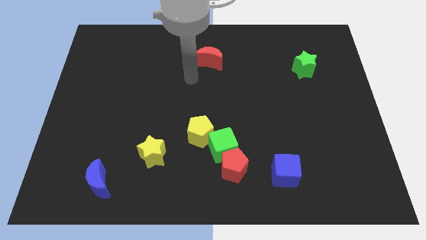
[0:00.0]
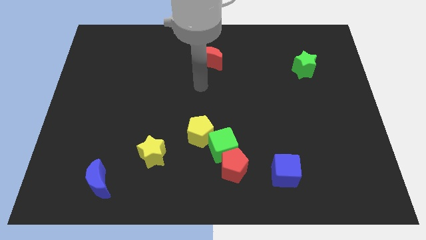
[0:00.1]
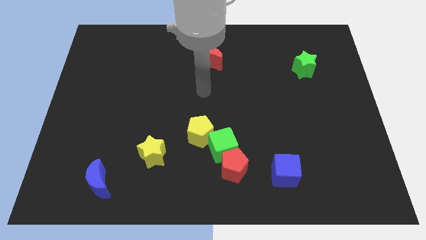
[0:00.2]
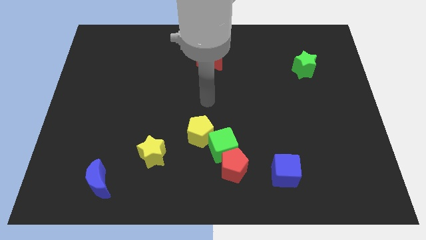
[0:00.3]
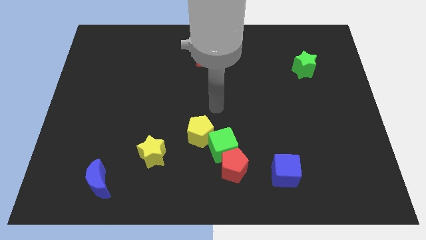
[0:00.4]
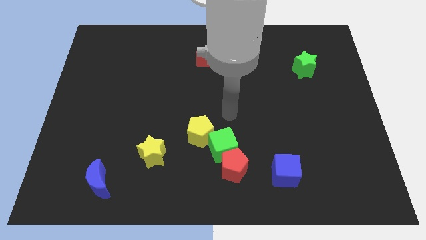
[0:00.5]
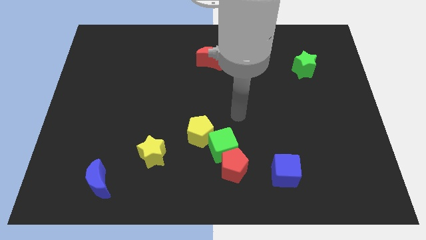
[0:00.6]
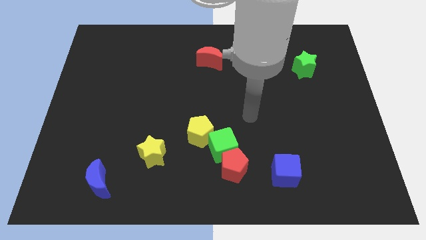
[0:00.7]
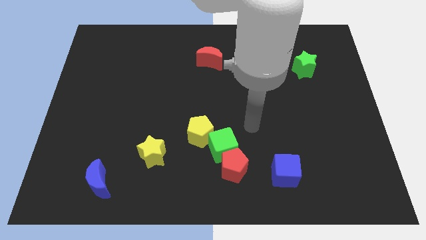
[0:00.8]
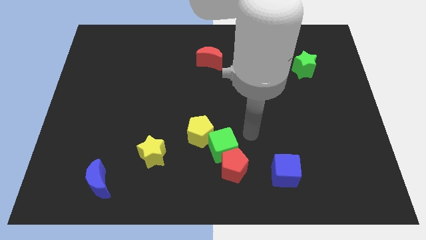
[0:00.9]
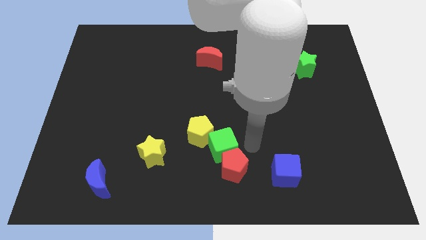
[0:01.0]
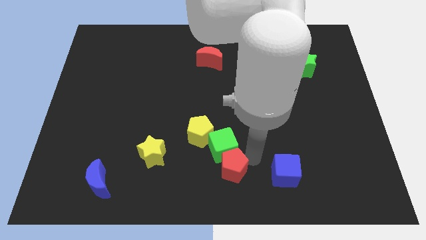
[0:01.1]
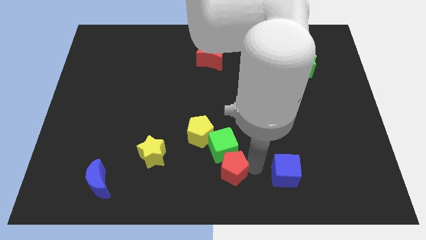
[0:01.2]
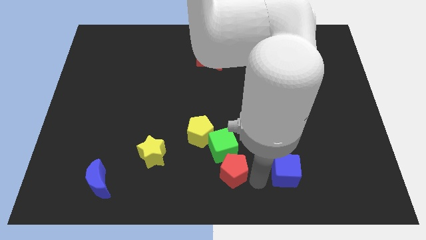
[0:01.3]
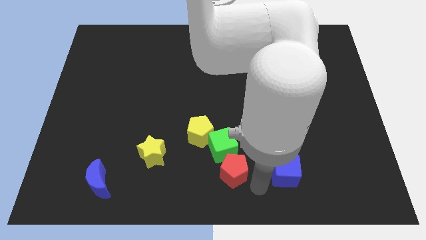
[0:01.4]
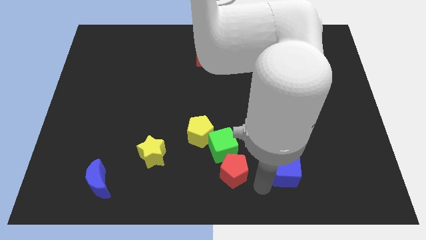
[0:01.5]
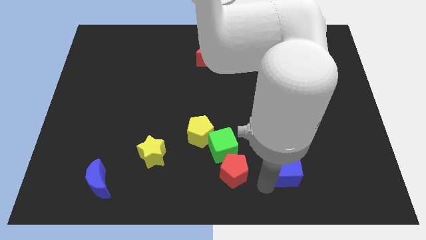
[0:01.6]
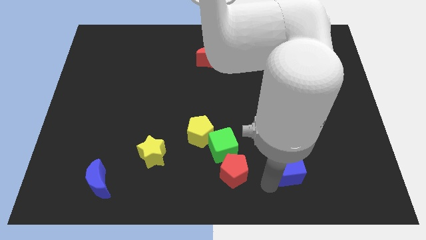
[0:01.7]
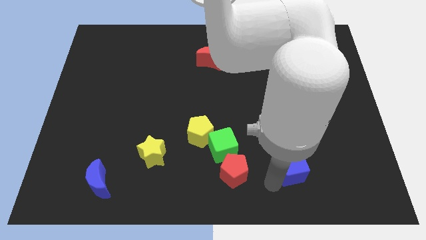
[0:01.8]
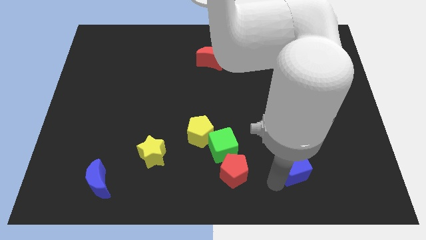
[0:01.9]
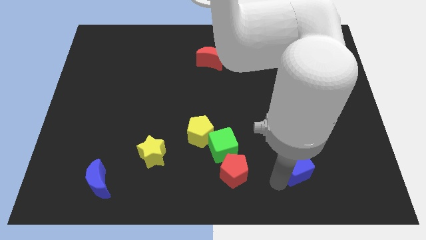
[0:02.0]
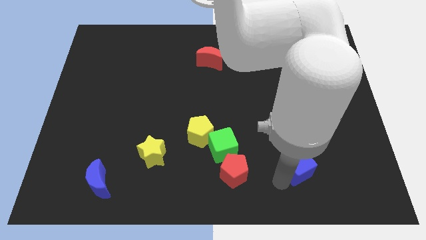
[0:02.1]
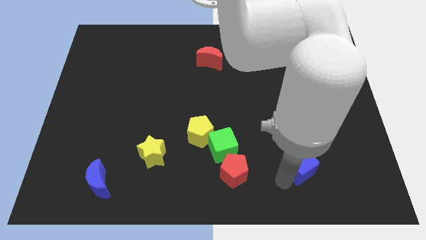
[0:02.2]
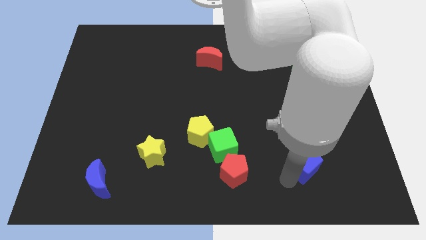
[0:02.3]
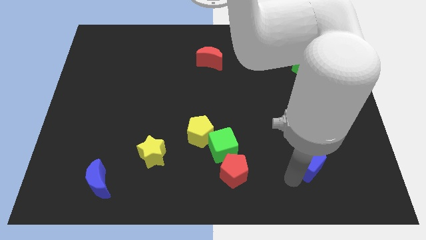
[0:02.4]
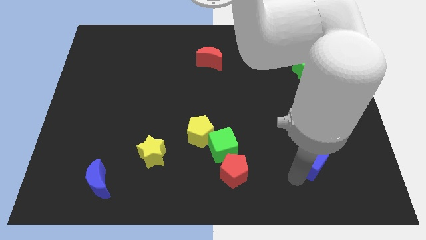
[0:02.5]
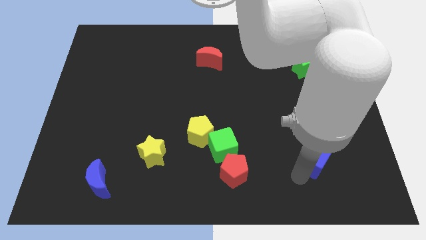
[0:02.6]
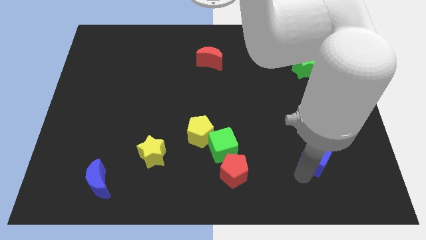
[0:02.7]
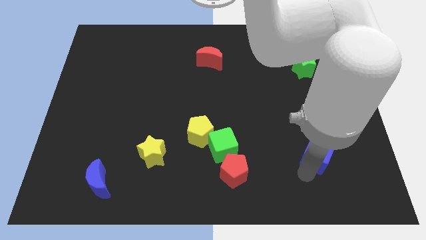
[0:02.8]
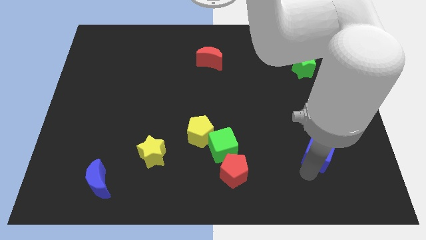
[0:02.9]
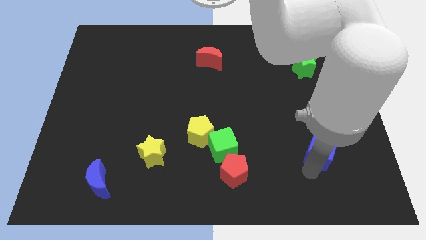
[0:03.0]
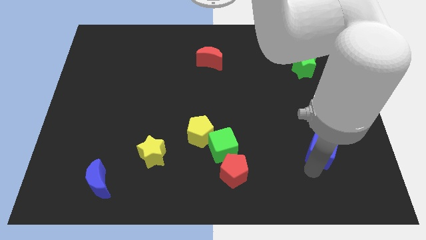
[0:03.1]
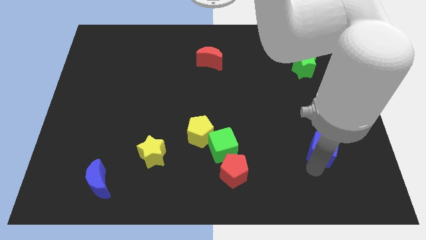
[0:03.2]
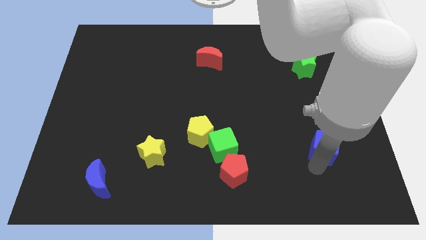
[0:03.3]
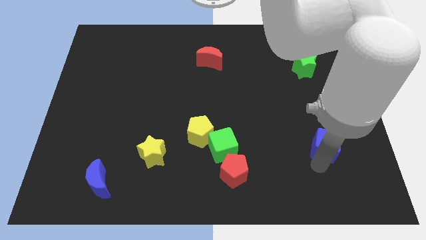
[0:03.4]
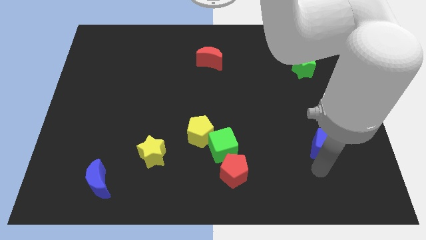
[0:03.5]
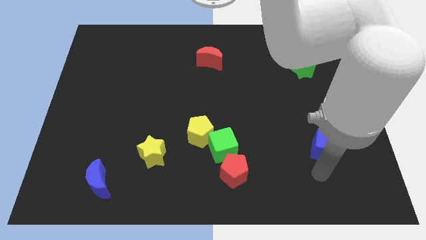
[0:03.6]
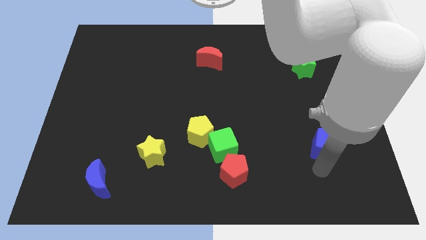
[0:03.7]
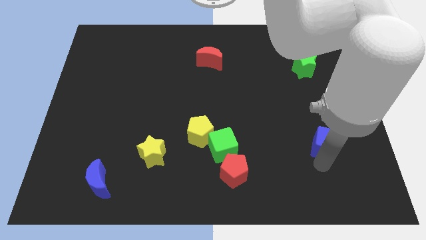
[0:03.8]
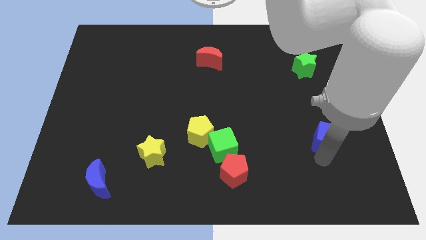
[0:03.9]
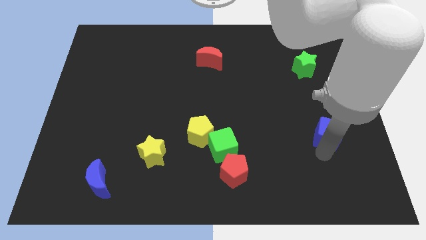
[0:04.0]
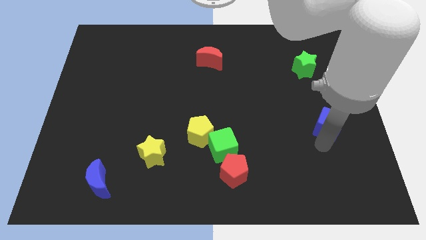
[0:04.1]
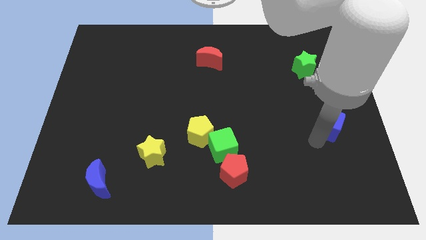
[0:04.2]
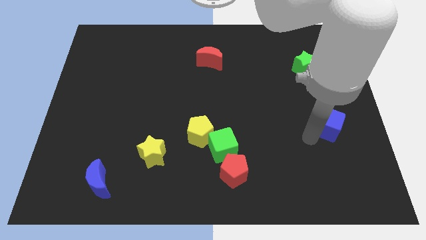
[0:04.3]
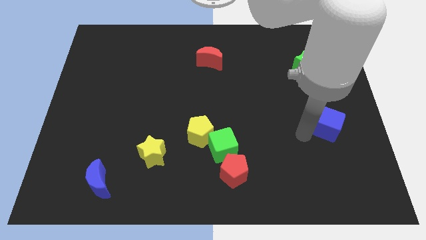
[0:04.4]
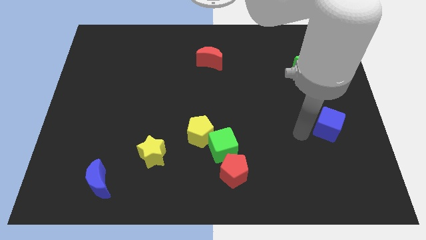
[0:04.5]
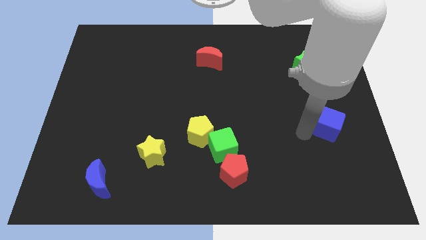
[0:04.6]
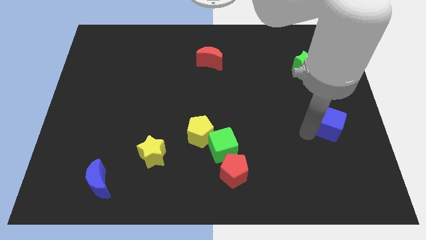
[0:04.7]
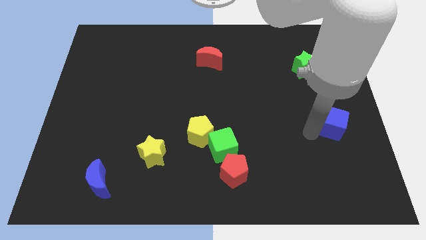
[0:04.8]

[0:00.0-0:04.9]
push the blue cube to the center right

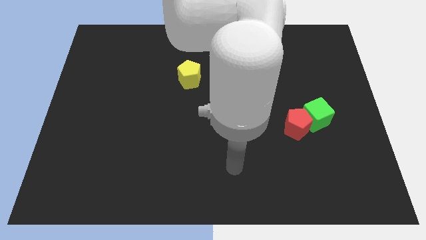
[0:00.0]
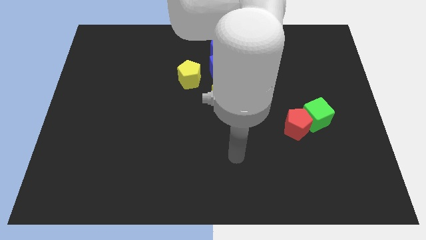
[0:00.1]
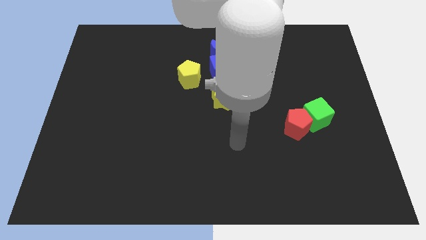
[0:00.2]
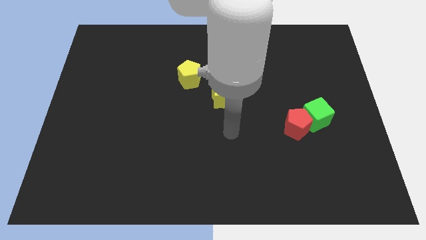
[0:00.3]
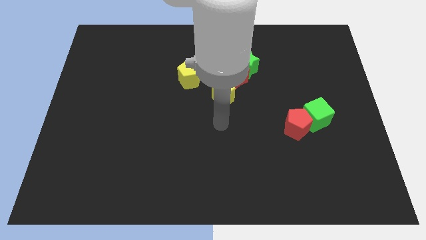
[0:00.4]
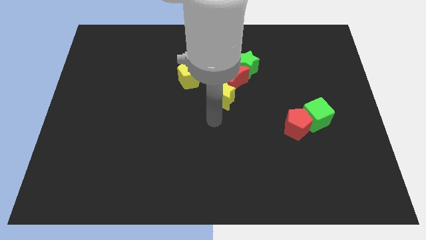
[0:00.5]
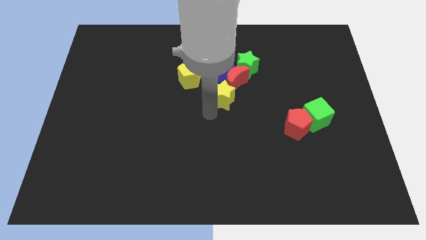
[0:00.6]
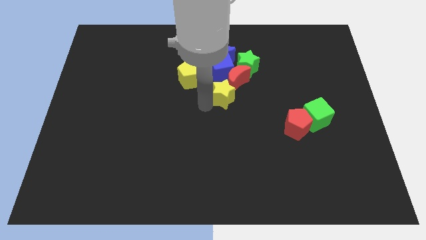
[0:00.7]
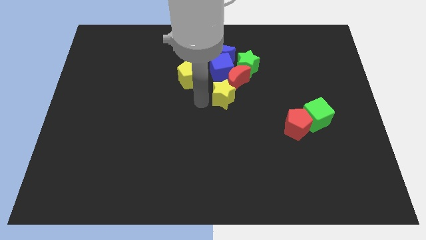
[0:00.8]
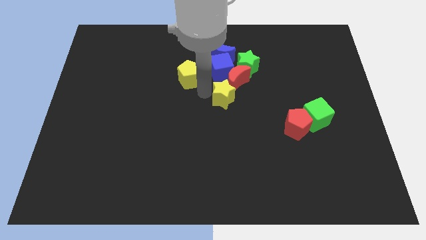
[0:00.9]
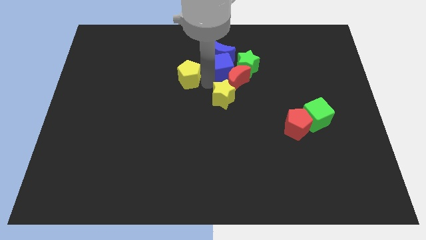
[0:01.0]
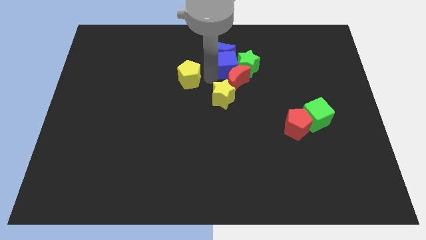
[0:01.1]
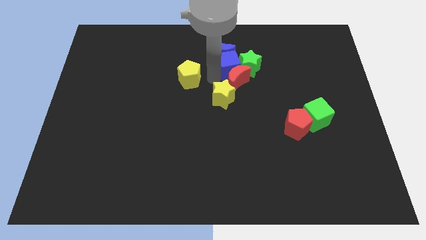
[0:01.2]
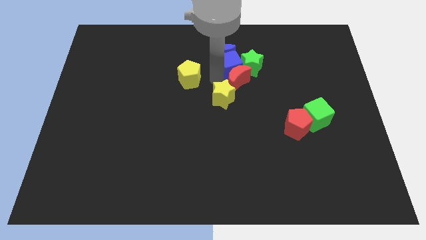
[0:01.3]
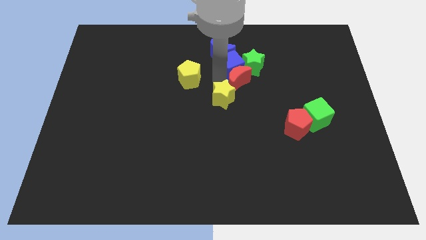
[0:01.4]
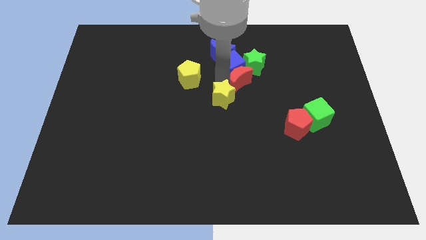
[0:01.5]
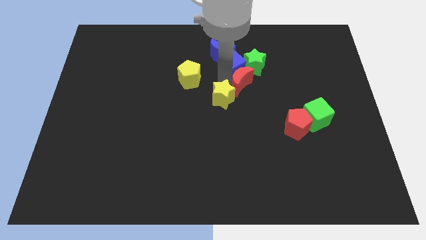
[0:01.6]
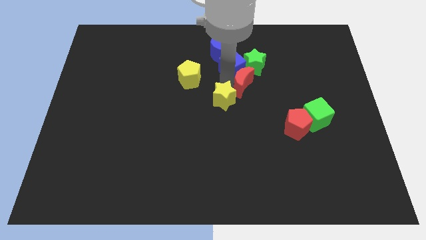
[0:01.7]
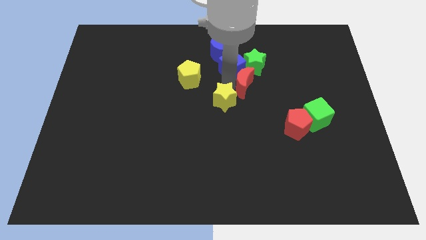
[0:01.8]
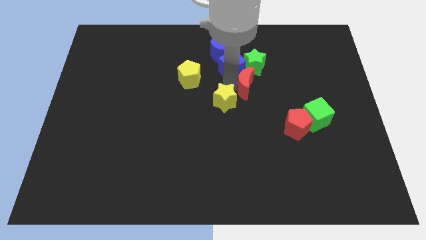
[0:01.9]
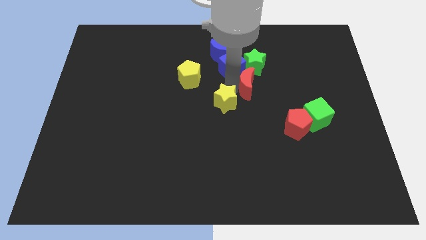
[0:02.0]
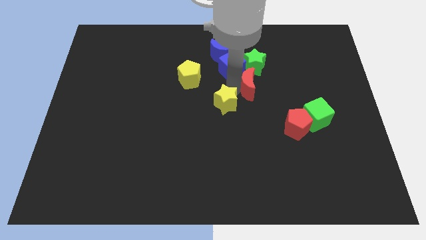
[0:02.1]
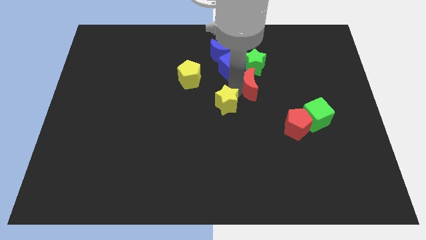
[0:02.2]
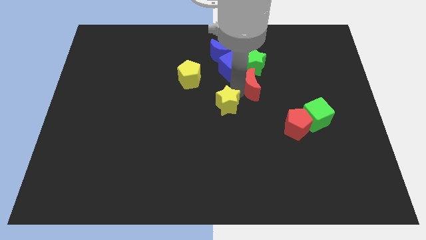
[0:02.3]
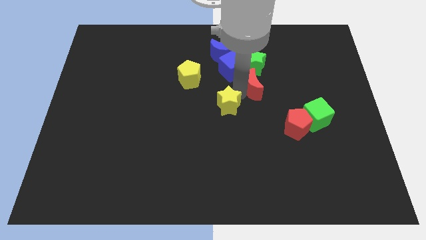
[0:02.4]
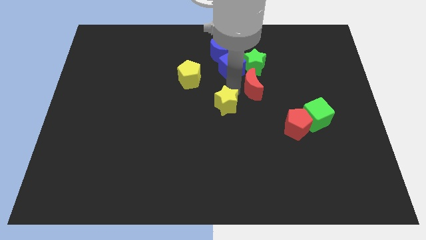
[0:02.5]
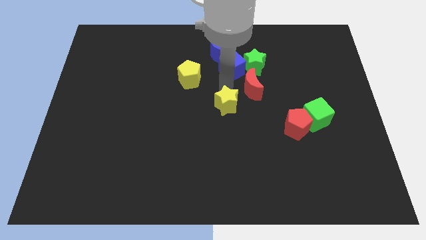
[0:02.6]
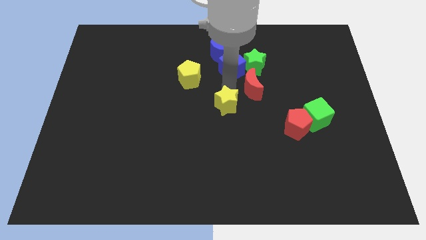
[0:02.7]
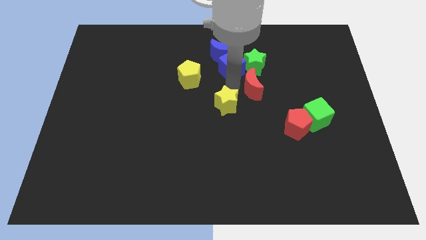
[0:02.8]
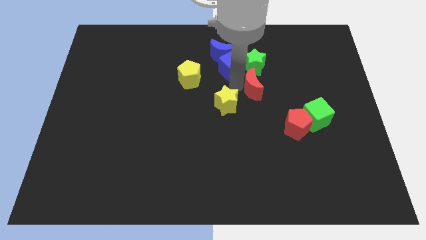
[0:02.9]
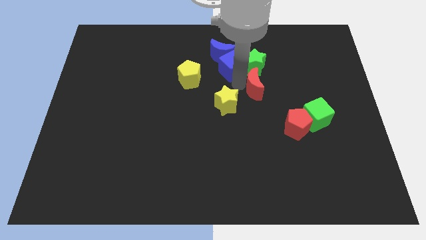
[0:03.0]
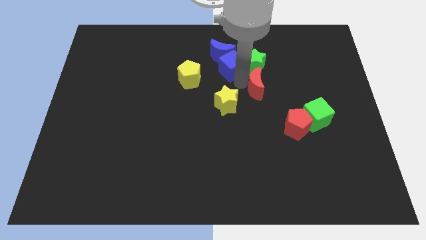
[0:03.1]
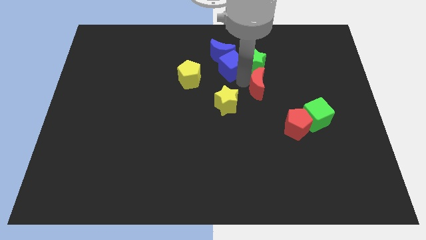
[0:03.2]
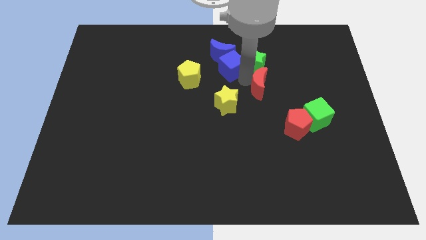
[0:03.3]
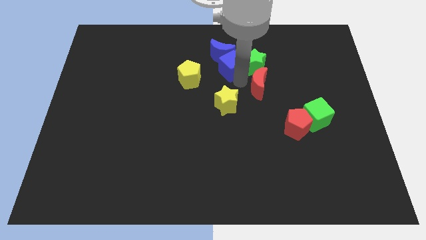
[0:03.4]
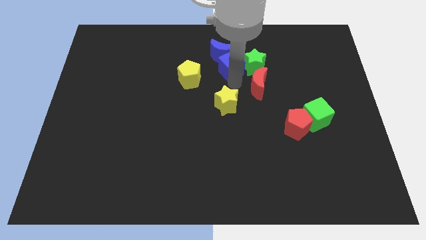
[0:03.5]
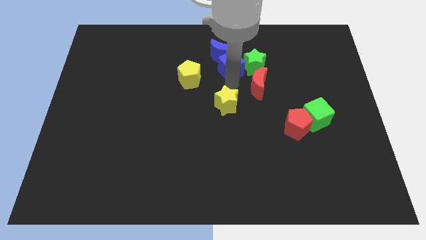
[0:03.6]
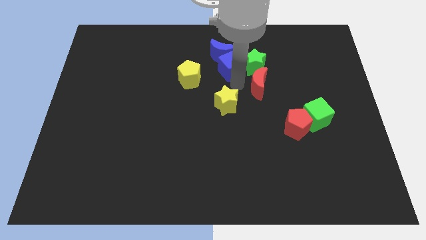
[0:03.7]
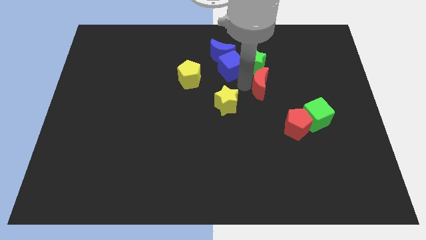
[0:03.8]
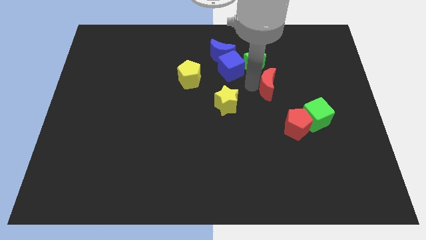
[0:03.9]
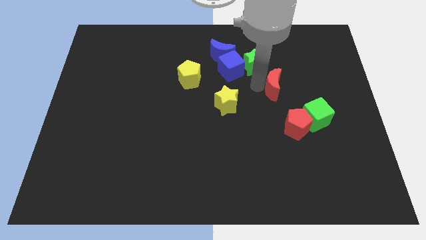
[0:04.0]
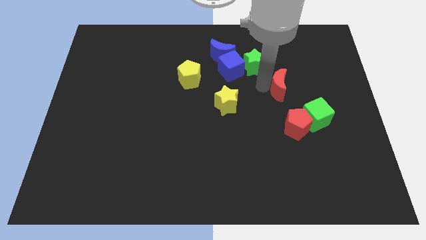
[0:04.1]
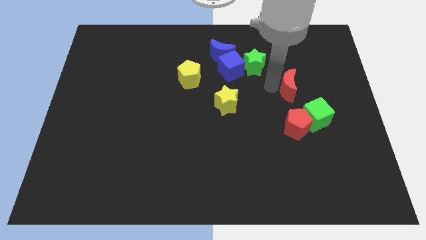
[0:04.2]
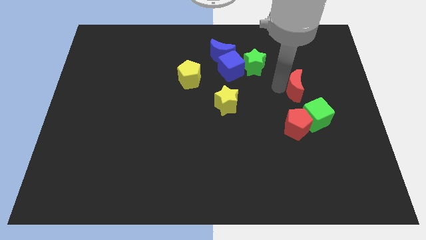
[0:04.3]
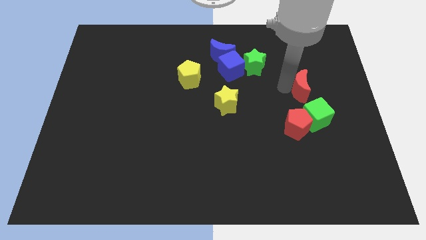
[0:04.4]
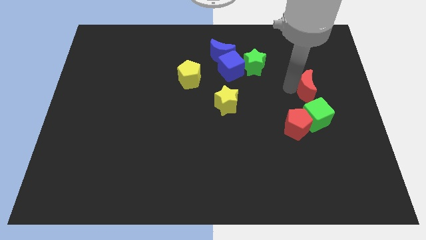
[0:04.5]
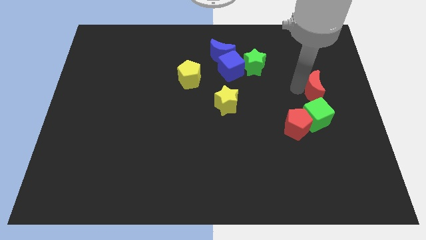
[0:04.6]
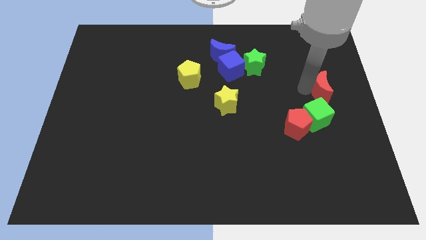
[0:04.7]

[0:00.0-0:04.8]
put the red moon to the right side
